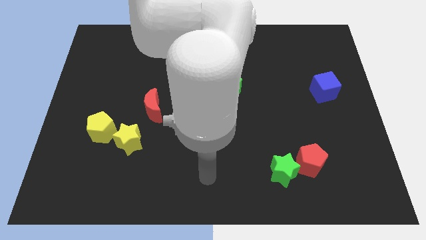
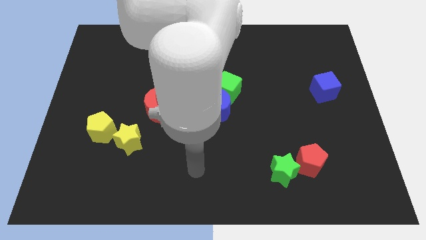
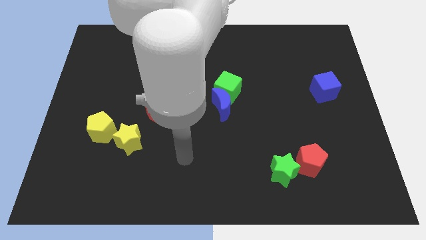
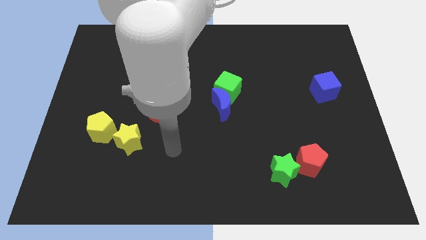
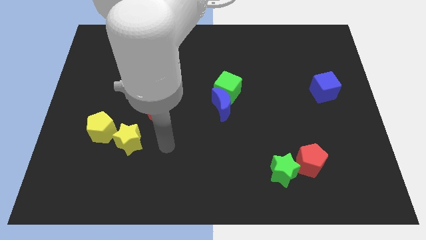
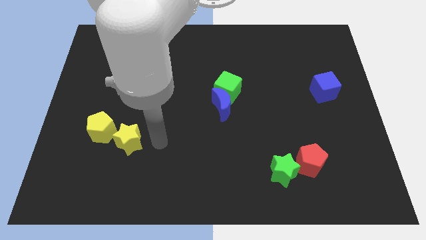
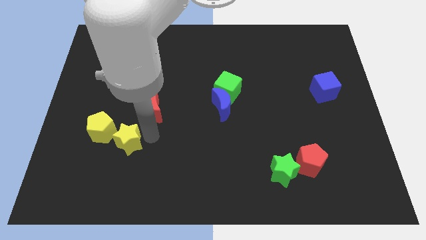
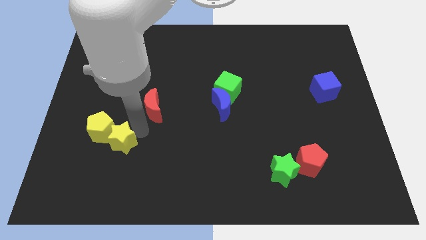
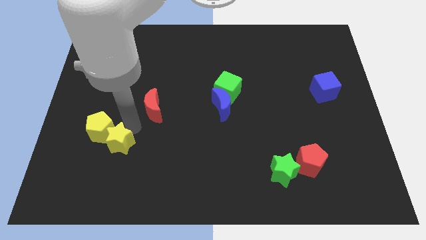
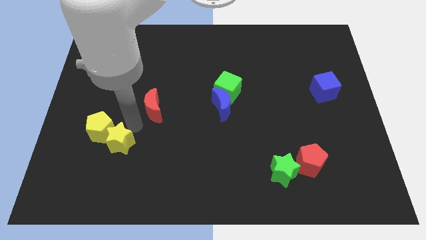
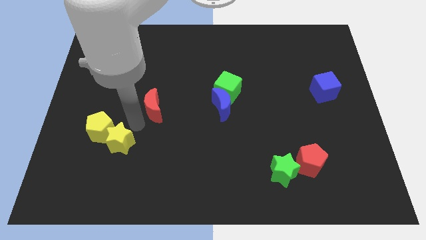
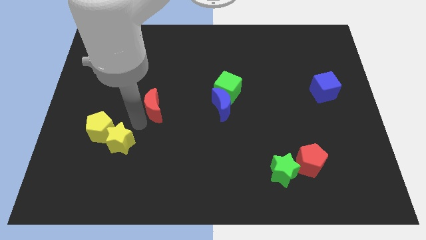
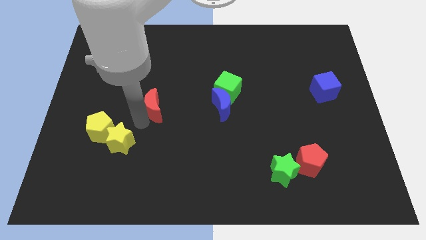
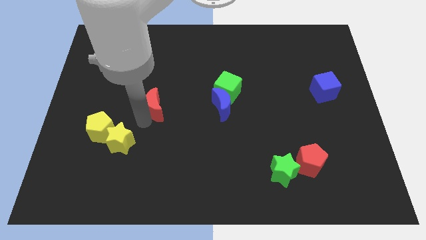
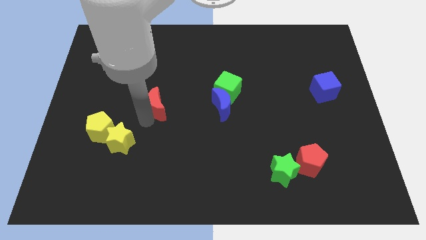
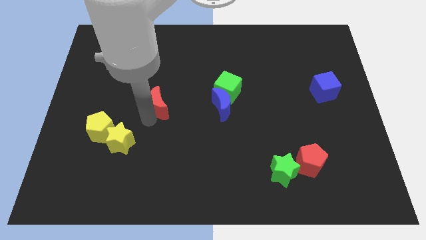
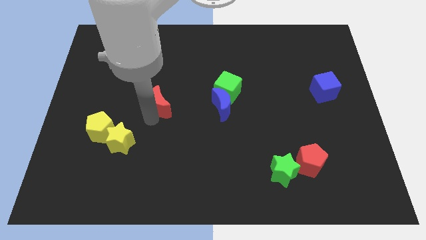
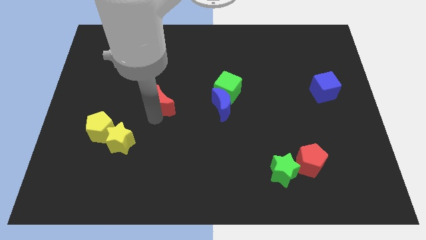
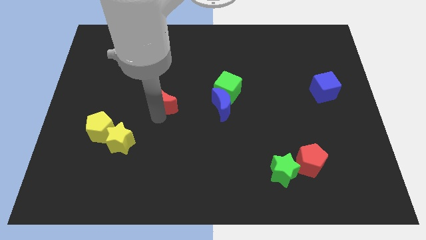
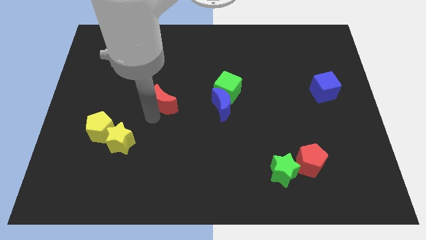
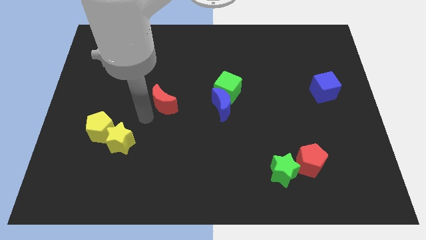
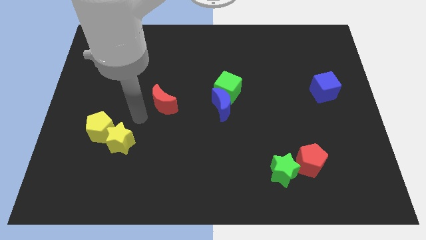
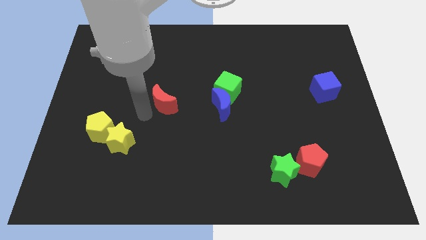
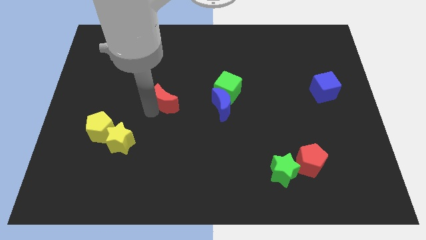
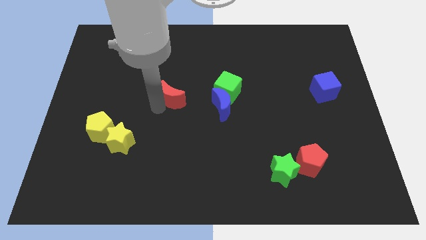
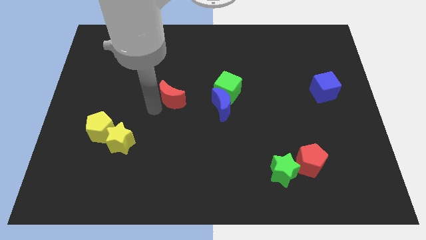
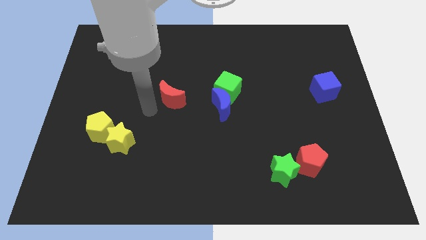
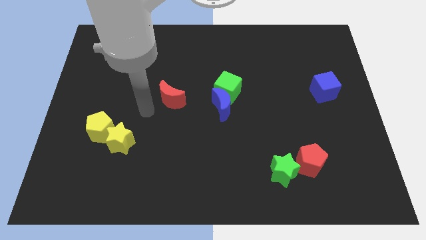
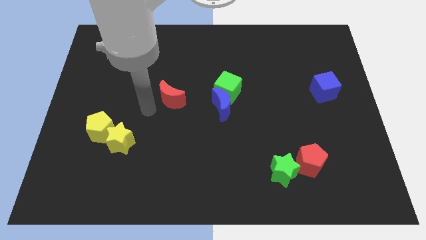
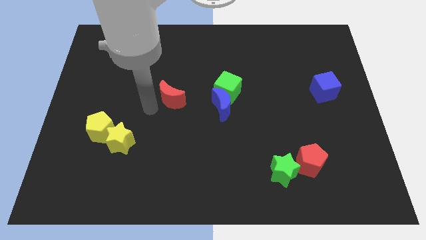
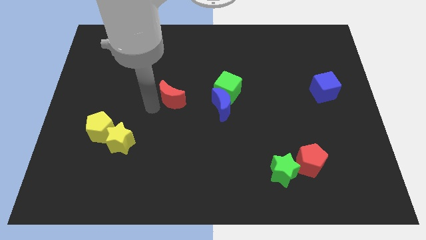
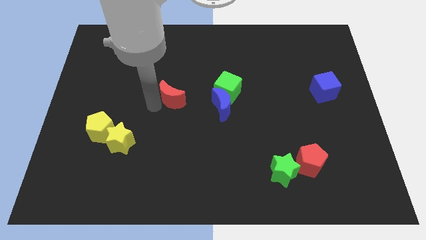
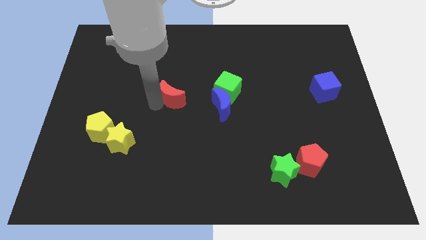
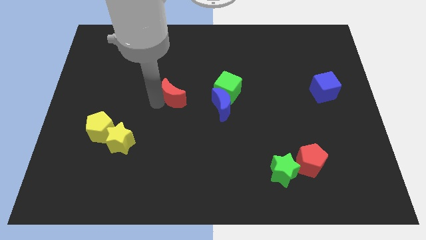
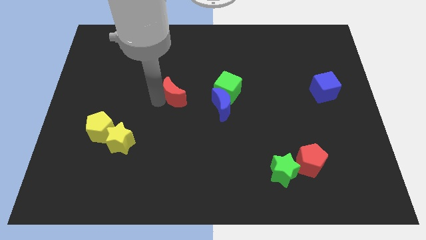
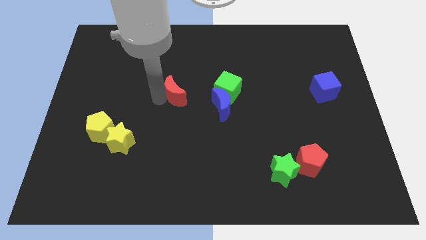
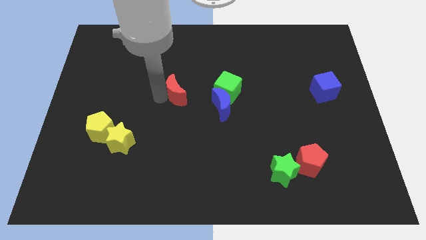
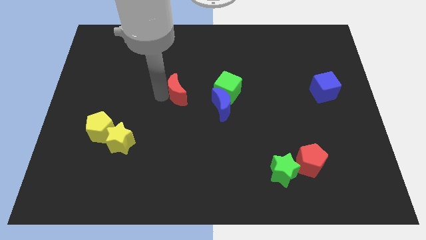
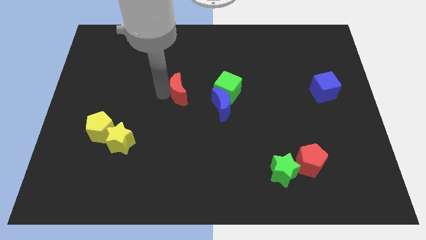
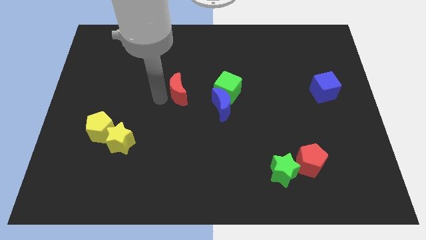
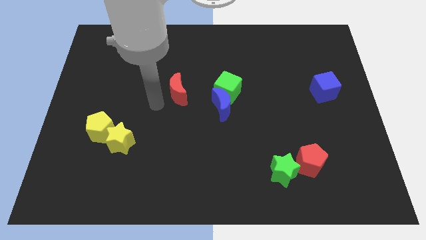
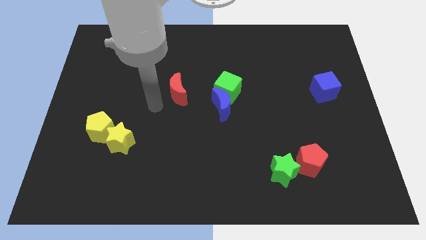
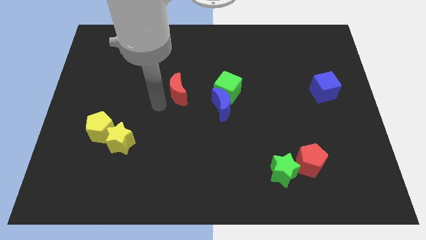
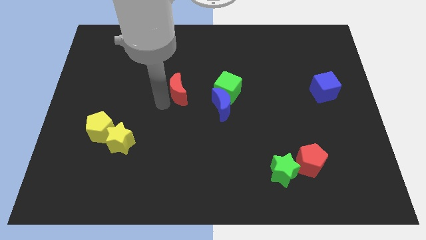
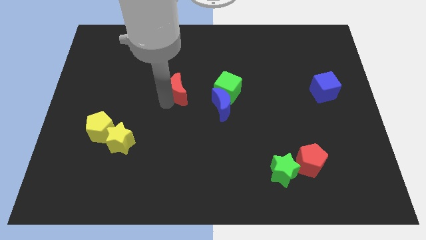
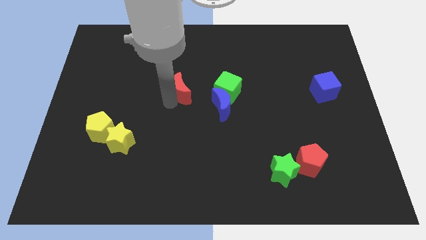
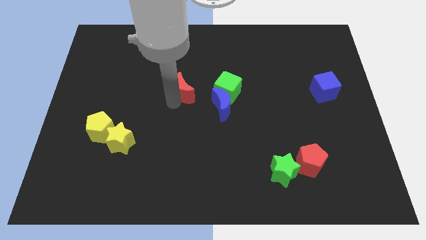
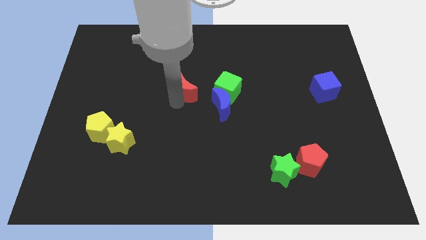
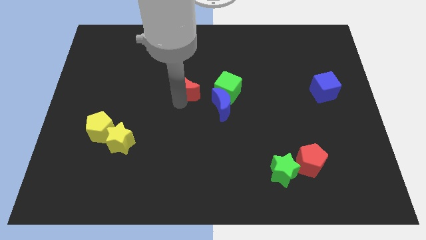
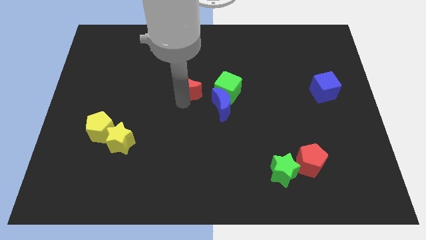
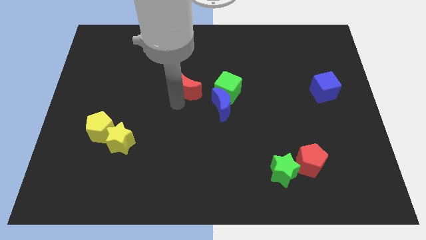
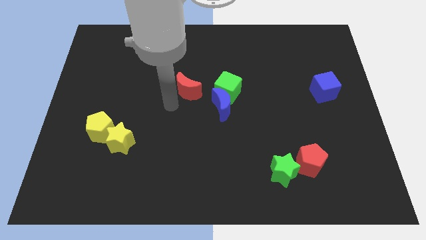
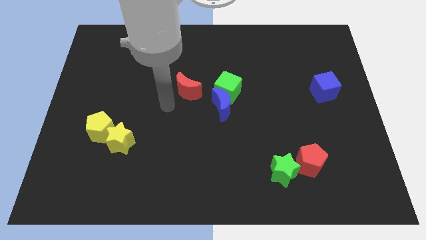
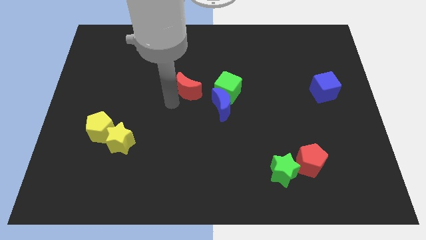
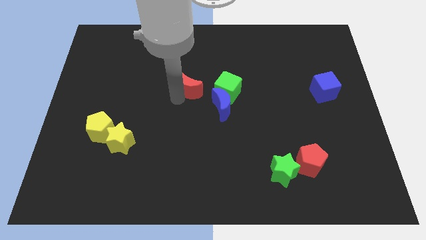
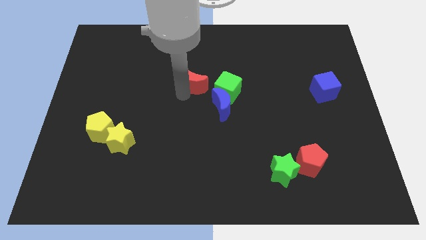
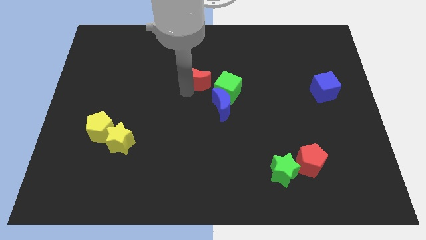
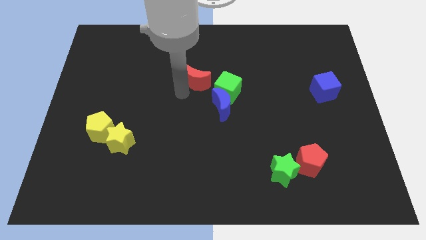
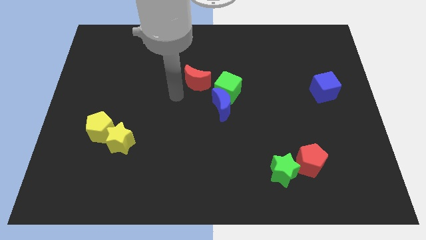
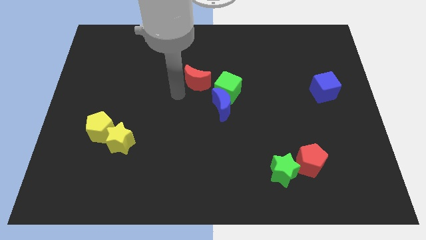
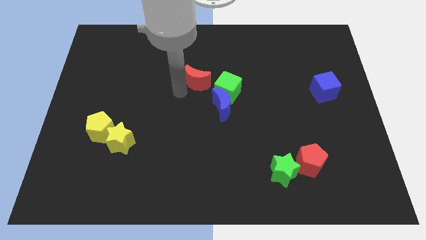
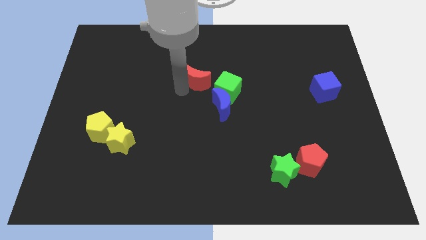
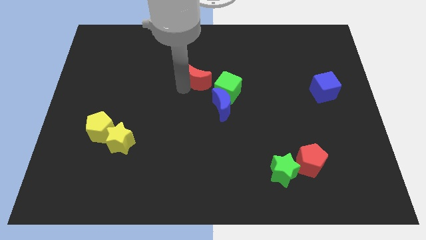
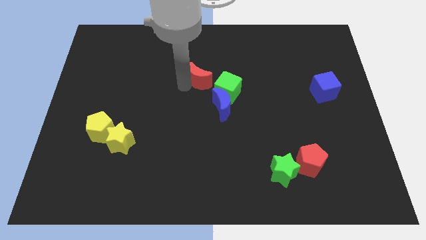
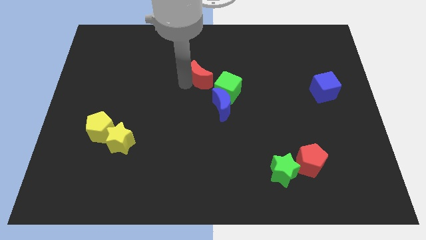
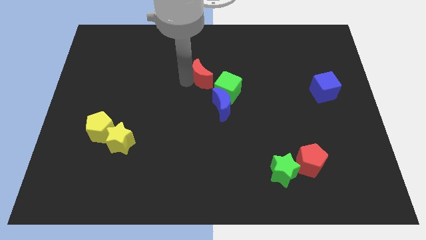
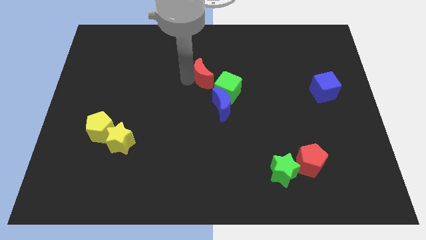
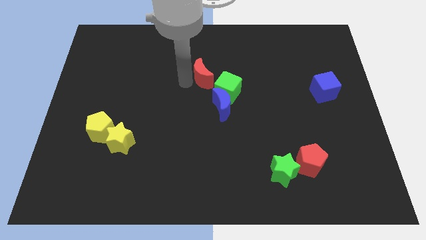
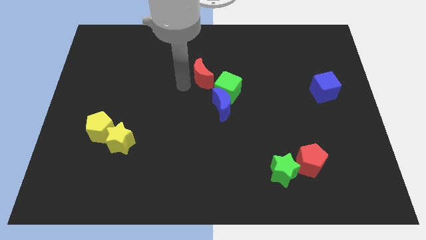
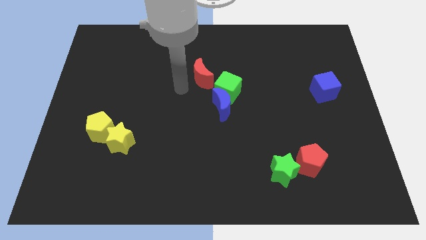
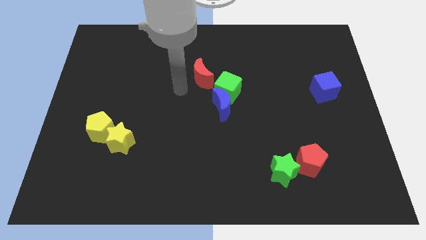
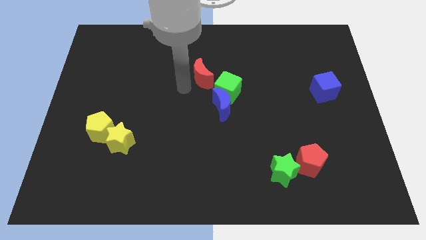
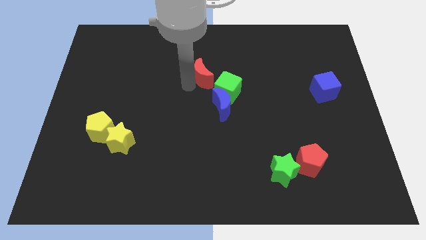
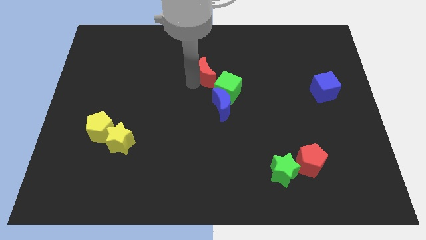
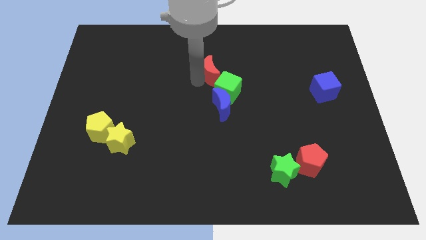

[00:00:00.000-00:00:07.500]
push the red moon above the green cube
